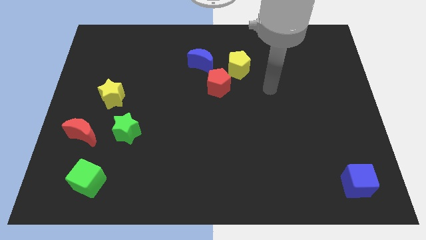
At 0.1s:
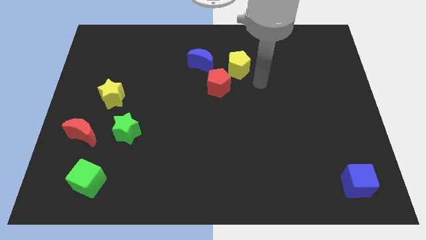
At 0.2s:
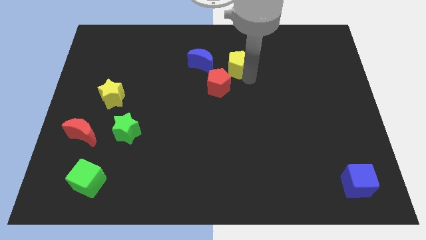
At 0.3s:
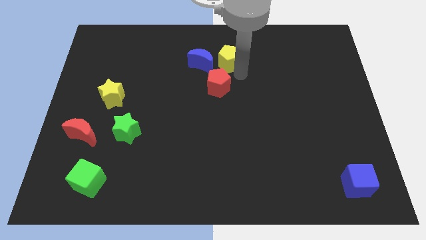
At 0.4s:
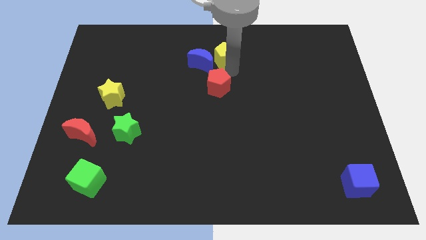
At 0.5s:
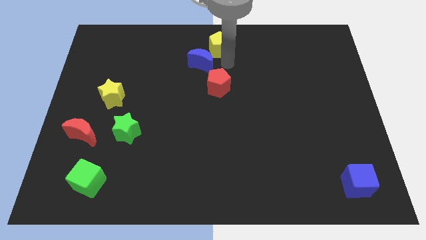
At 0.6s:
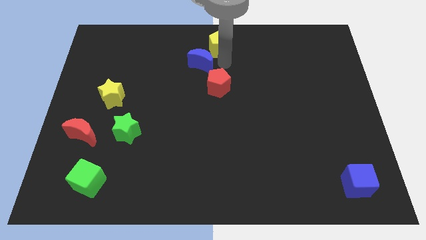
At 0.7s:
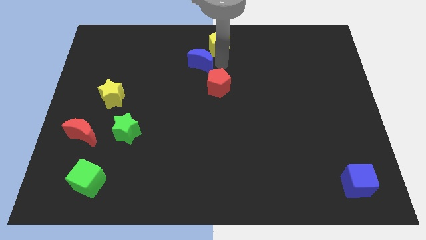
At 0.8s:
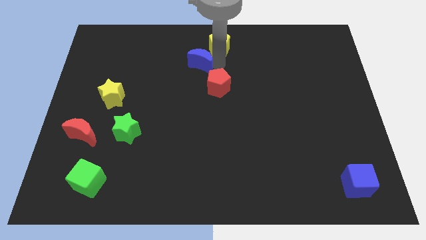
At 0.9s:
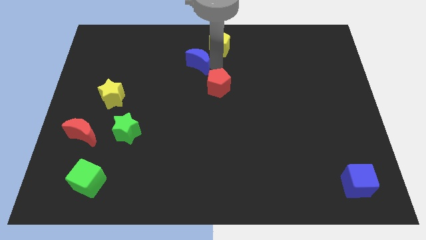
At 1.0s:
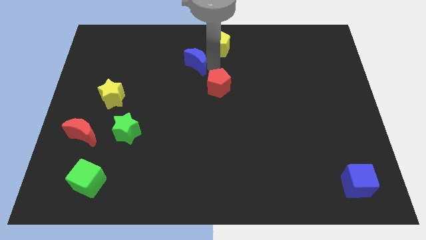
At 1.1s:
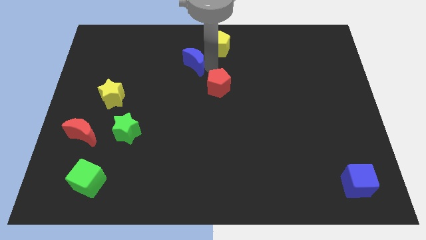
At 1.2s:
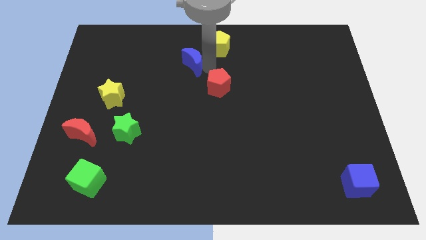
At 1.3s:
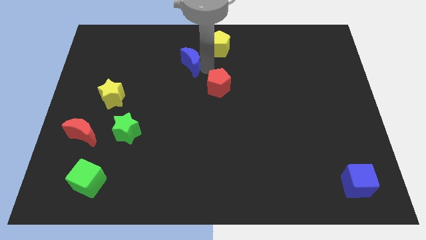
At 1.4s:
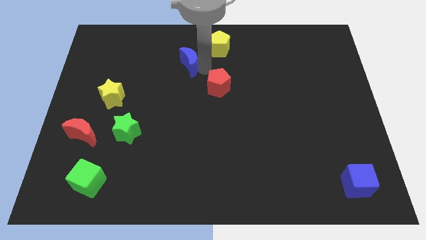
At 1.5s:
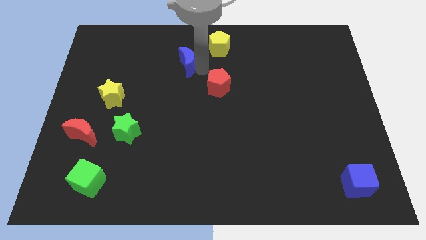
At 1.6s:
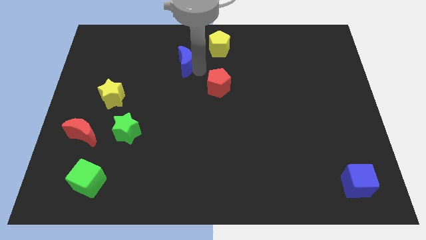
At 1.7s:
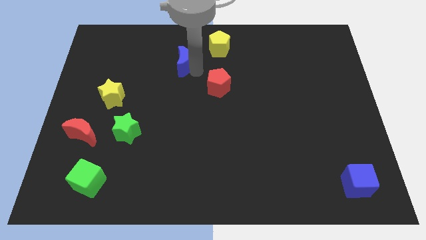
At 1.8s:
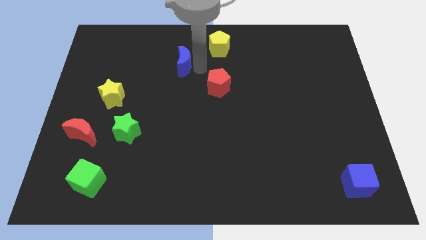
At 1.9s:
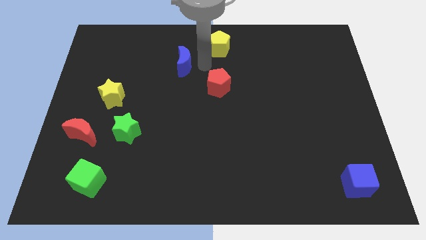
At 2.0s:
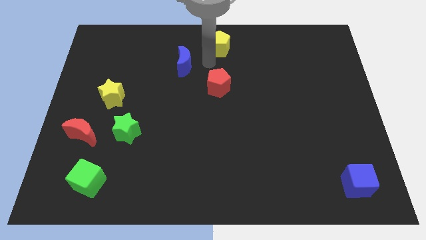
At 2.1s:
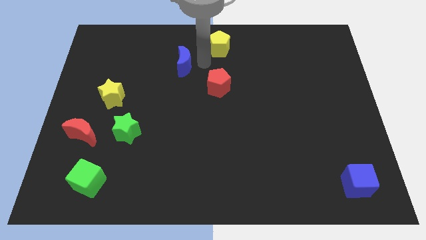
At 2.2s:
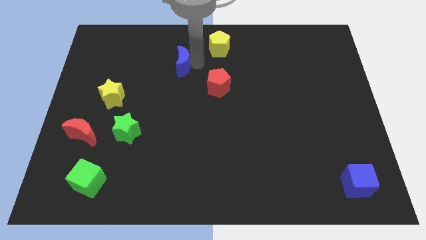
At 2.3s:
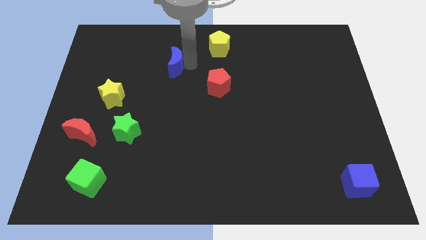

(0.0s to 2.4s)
push the blue moon left a little

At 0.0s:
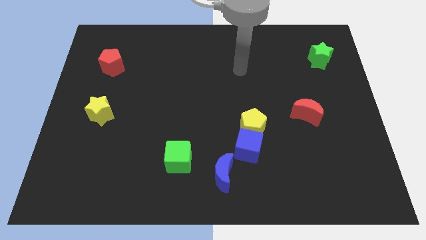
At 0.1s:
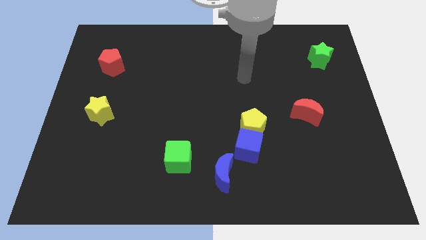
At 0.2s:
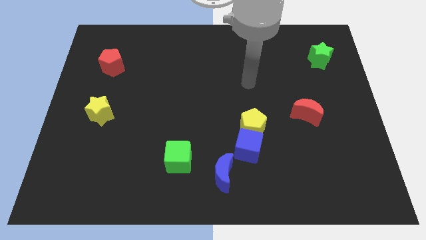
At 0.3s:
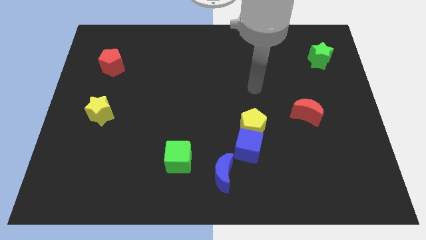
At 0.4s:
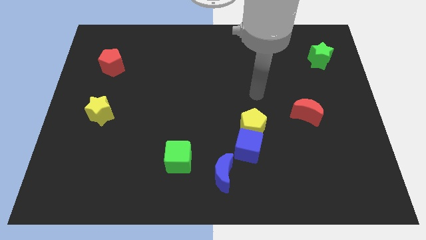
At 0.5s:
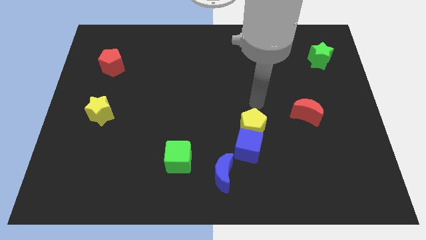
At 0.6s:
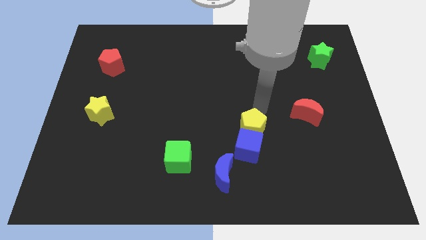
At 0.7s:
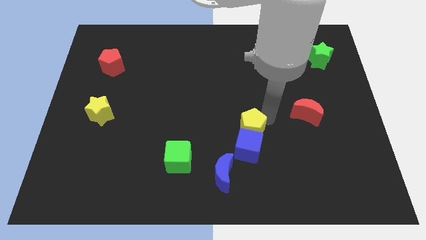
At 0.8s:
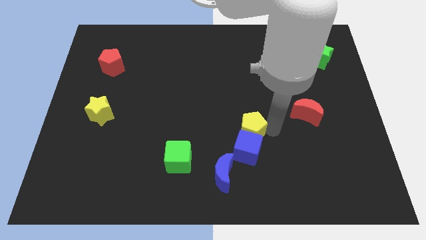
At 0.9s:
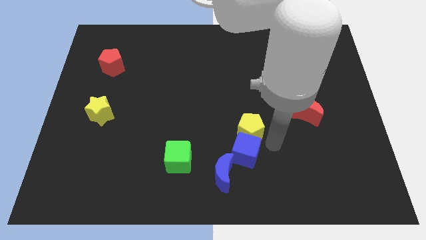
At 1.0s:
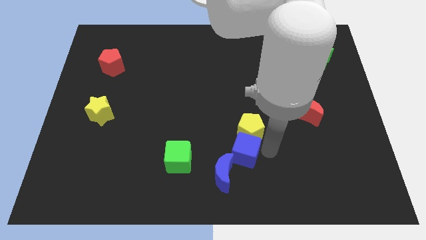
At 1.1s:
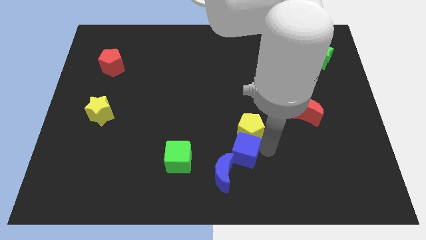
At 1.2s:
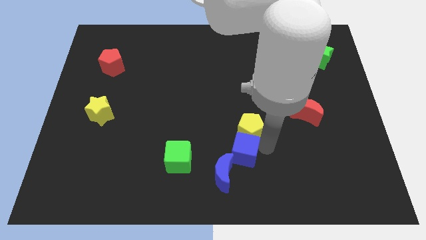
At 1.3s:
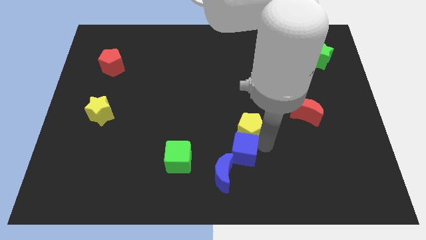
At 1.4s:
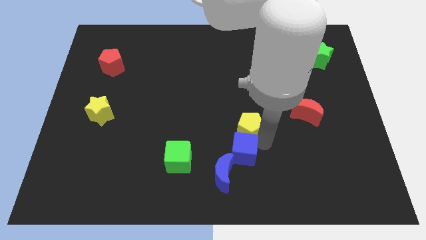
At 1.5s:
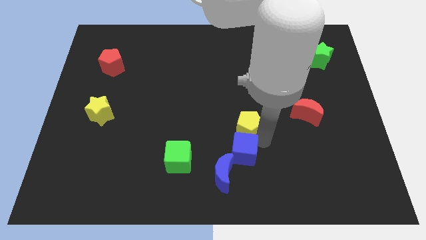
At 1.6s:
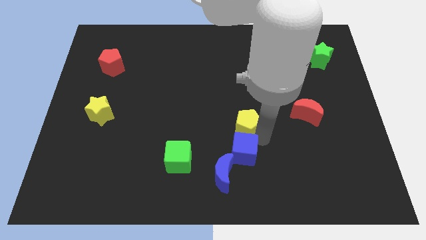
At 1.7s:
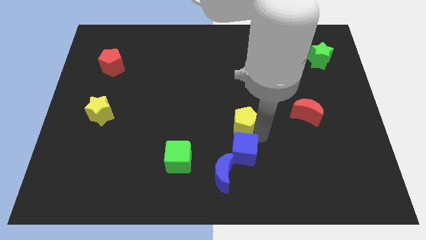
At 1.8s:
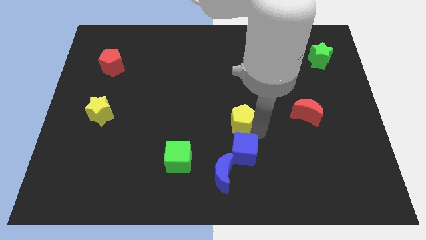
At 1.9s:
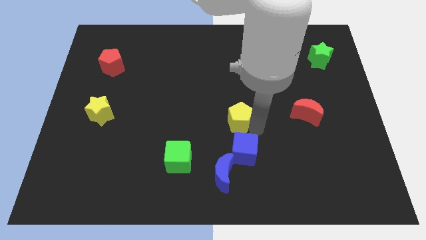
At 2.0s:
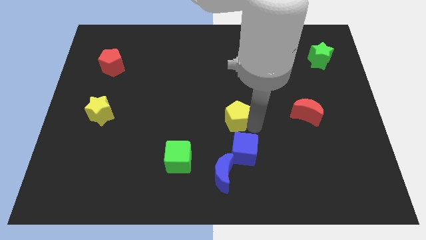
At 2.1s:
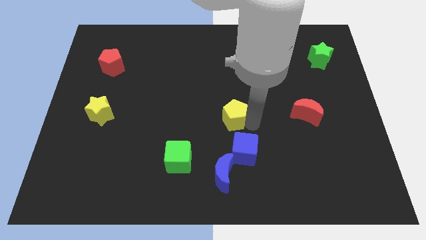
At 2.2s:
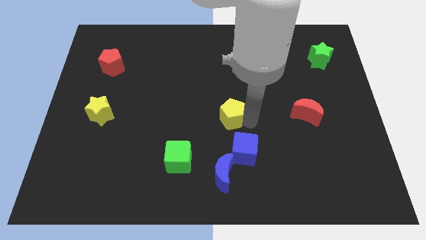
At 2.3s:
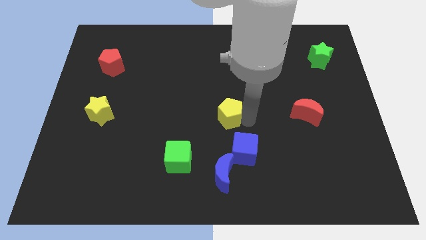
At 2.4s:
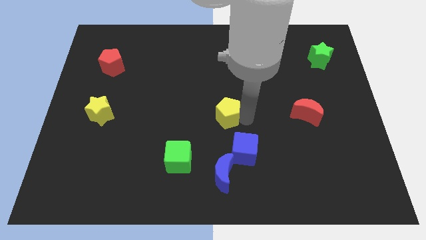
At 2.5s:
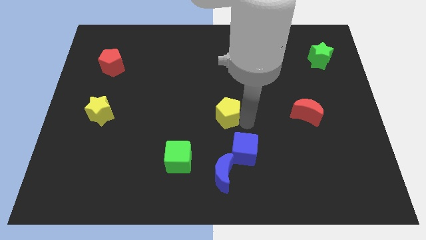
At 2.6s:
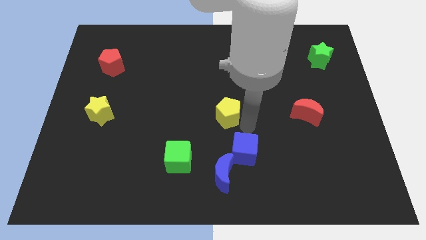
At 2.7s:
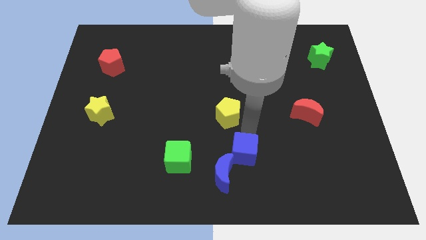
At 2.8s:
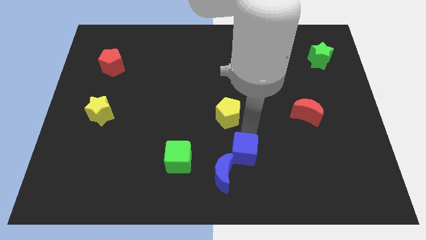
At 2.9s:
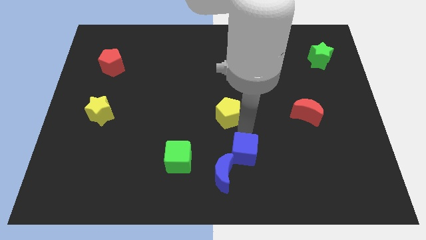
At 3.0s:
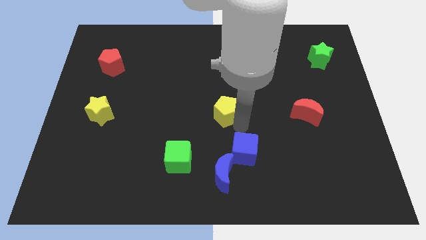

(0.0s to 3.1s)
slightly move the yellow pentagon diagonally upwards and left

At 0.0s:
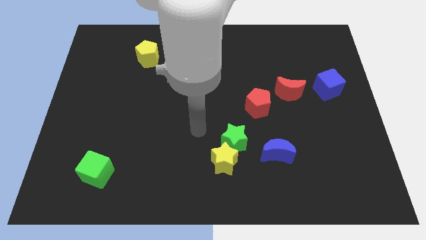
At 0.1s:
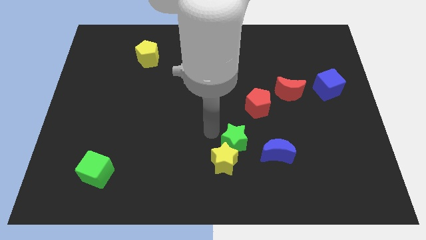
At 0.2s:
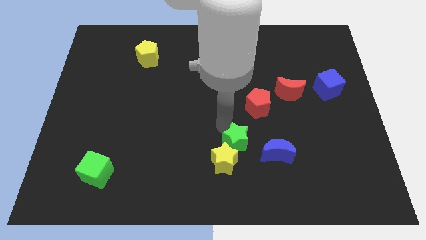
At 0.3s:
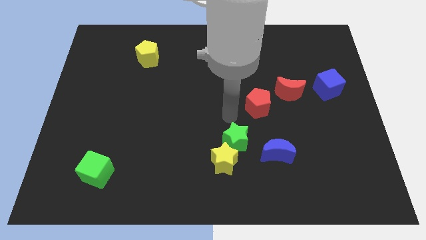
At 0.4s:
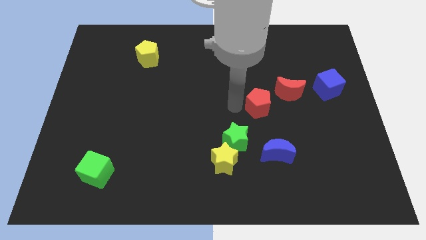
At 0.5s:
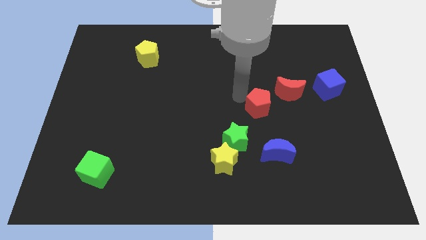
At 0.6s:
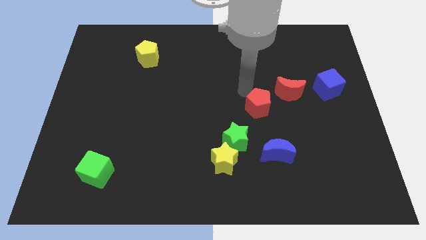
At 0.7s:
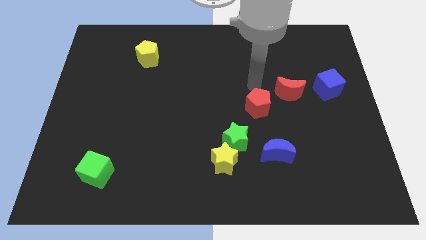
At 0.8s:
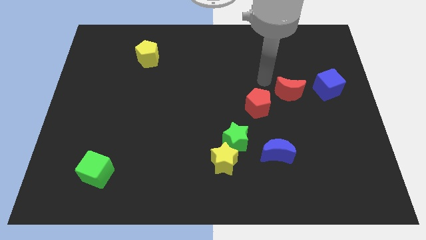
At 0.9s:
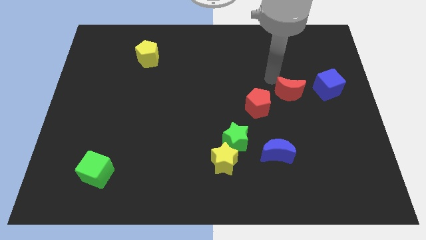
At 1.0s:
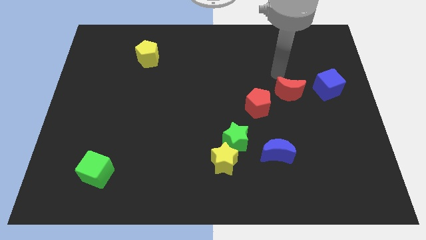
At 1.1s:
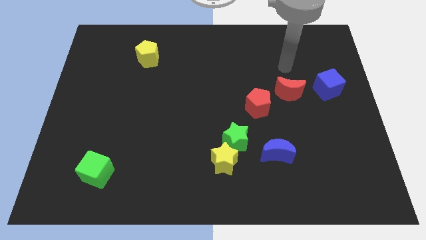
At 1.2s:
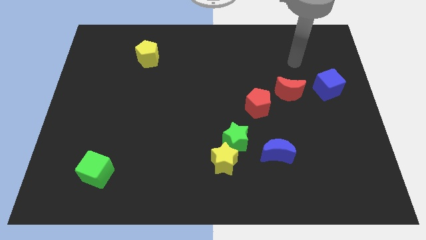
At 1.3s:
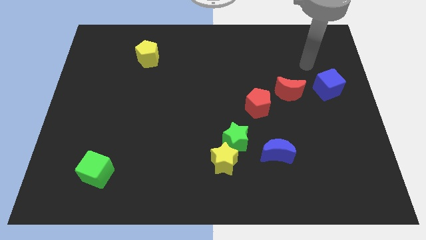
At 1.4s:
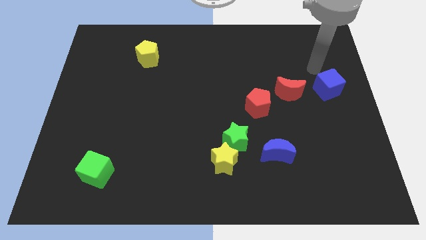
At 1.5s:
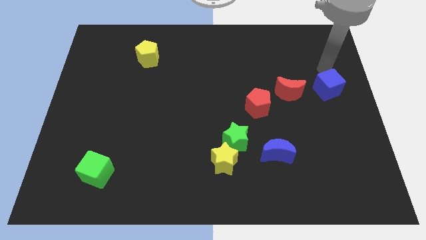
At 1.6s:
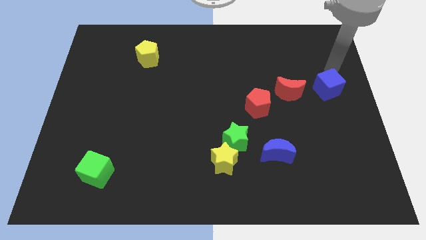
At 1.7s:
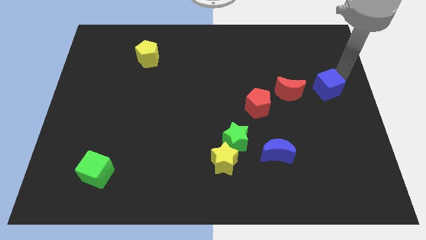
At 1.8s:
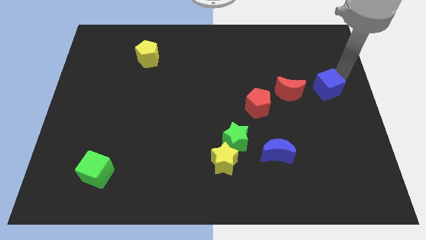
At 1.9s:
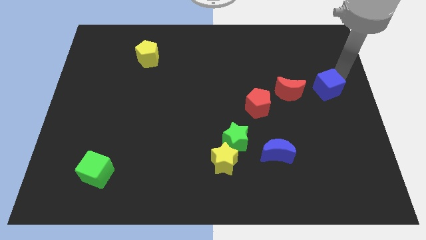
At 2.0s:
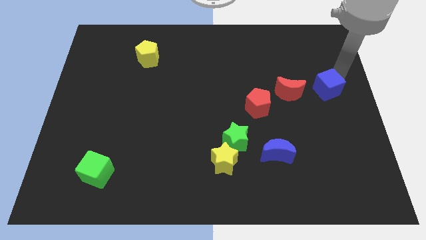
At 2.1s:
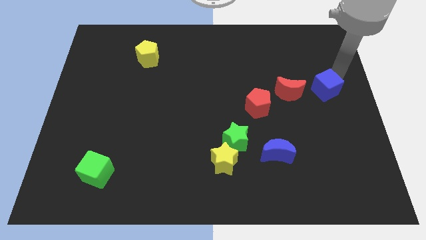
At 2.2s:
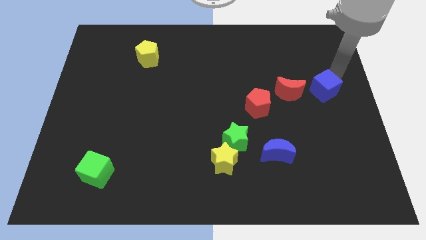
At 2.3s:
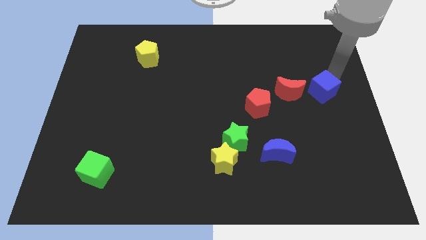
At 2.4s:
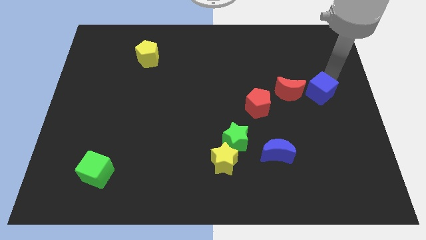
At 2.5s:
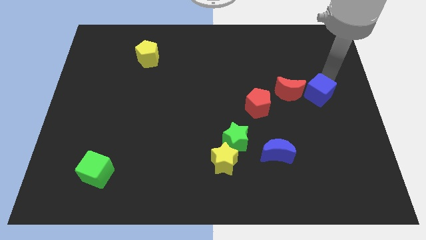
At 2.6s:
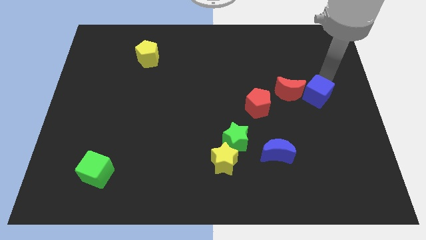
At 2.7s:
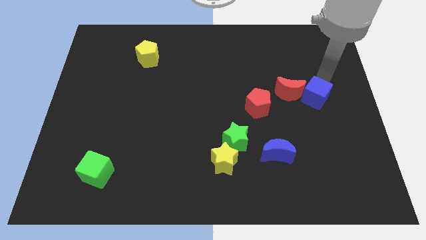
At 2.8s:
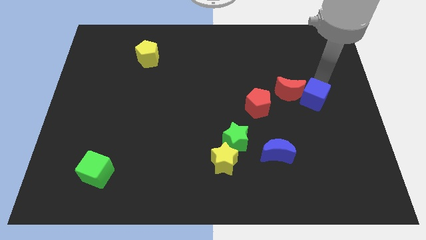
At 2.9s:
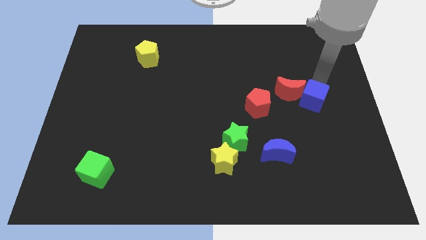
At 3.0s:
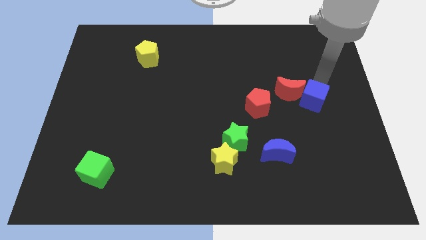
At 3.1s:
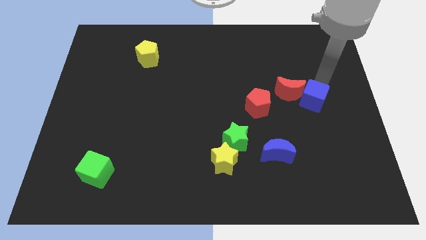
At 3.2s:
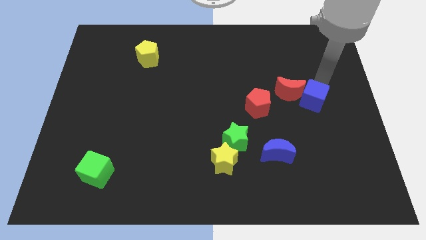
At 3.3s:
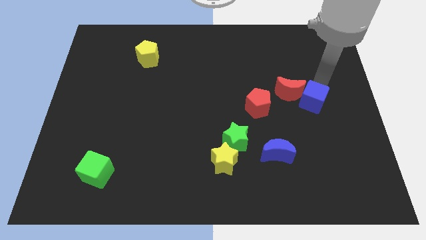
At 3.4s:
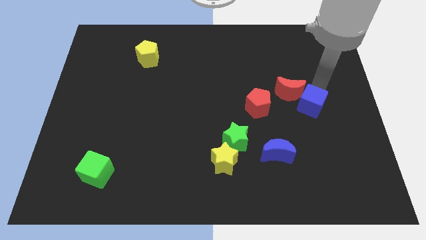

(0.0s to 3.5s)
slightly move the blue cube diagonally downwards and left
